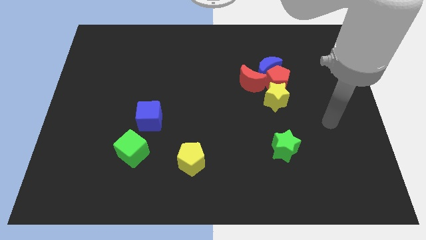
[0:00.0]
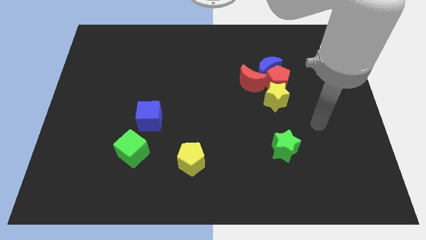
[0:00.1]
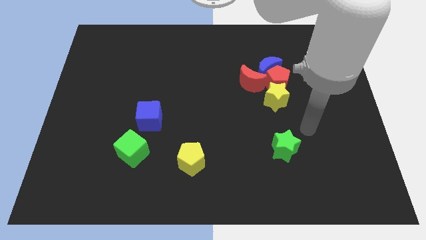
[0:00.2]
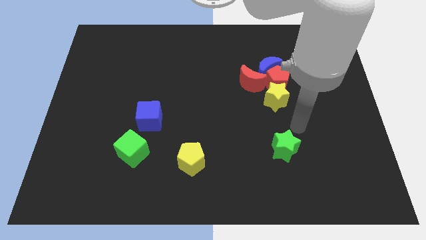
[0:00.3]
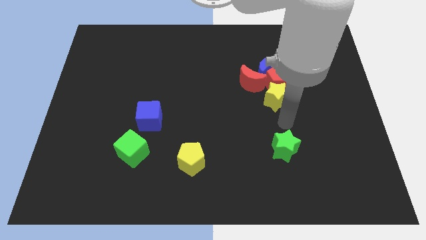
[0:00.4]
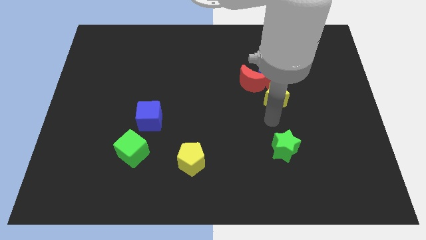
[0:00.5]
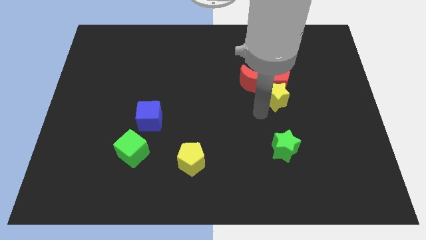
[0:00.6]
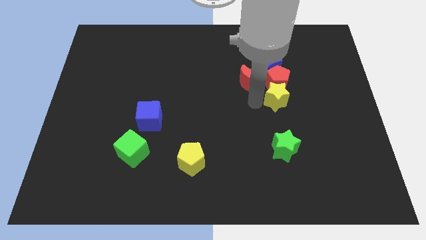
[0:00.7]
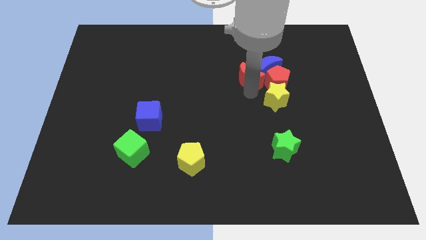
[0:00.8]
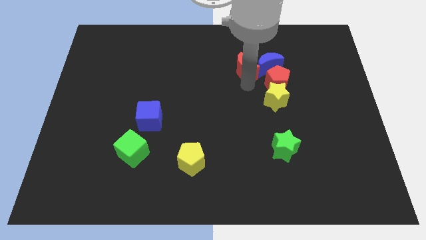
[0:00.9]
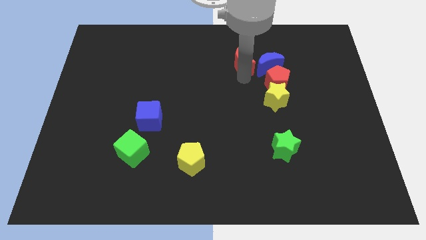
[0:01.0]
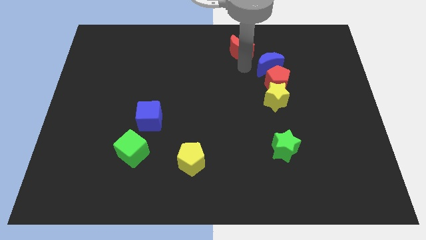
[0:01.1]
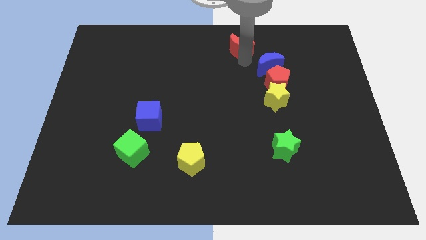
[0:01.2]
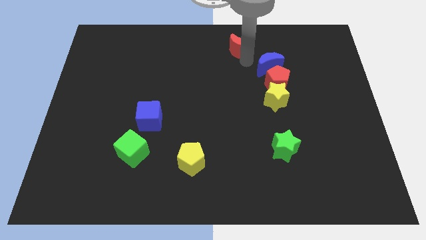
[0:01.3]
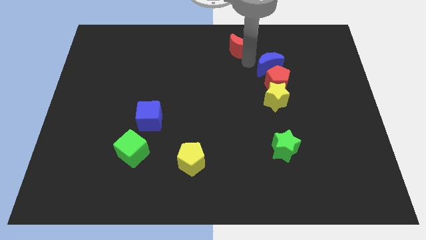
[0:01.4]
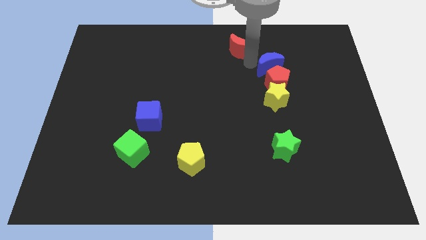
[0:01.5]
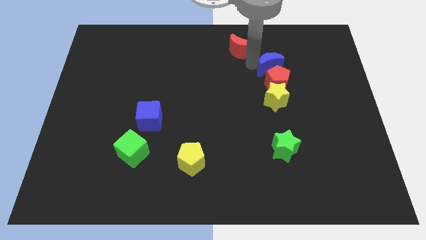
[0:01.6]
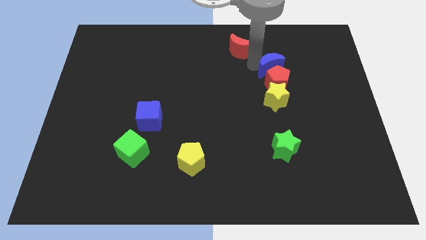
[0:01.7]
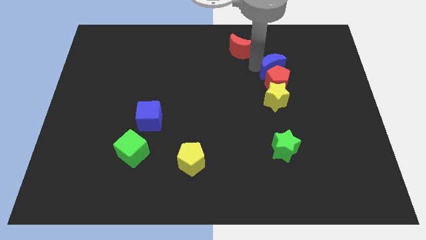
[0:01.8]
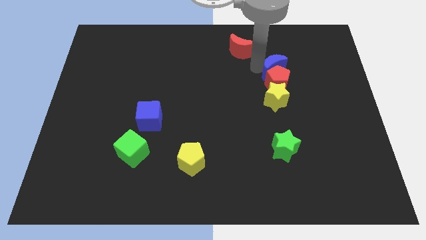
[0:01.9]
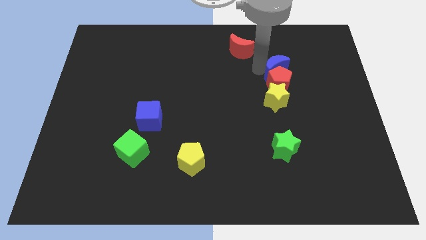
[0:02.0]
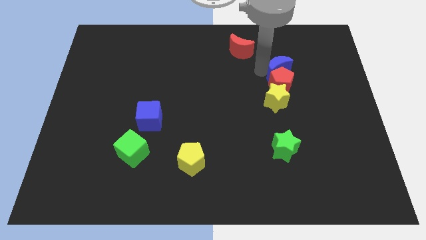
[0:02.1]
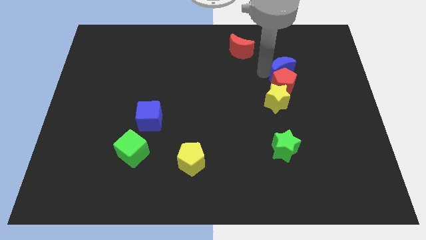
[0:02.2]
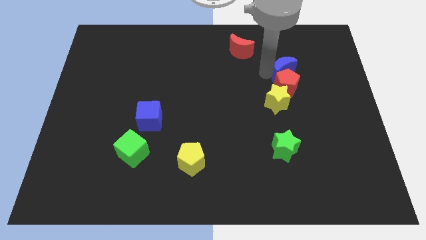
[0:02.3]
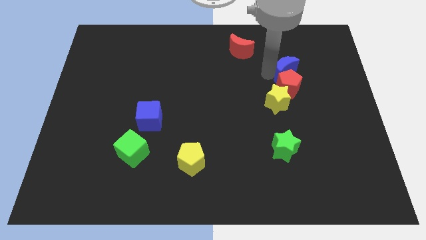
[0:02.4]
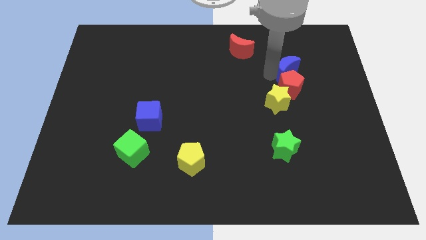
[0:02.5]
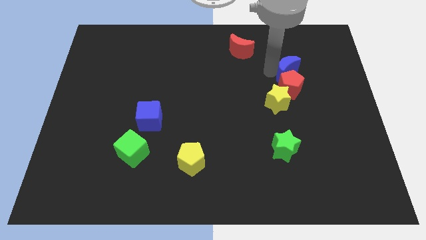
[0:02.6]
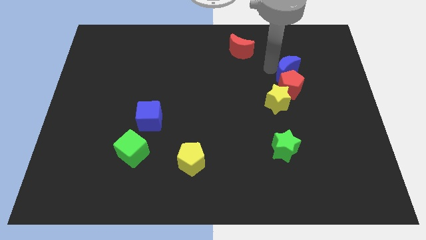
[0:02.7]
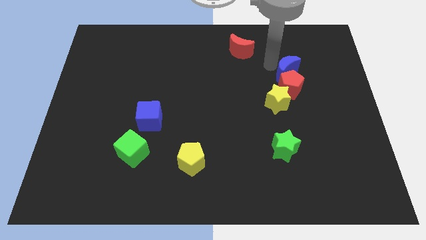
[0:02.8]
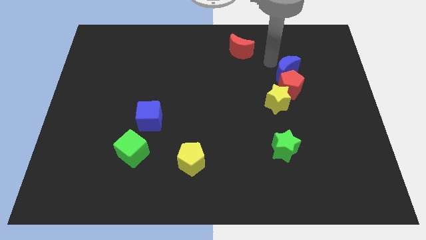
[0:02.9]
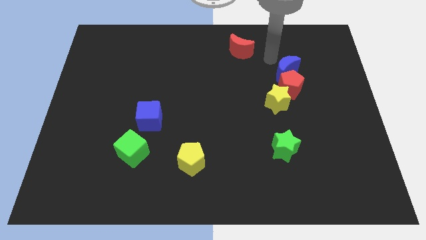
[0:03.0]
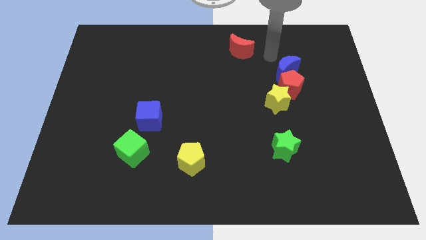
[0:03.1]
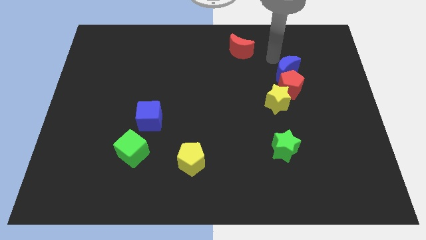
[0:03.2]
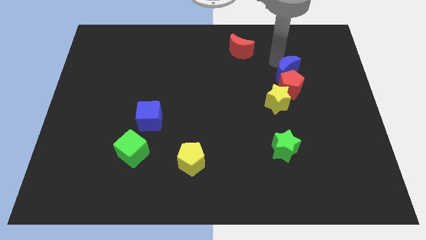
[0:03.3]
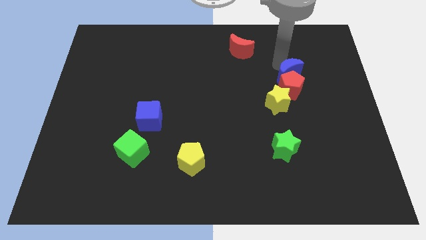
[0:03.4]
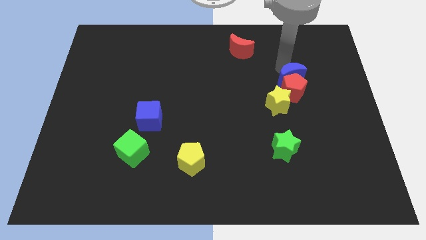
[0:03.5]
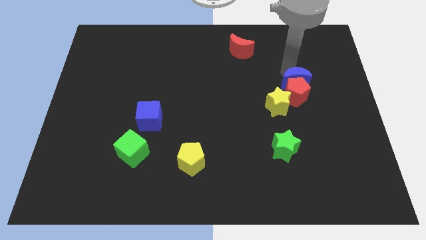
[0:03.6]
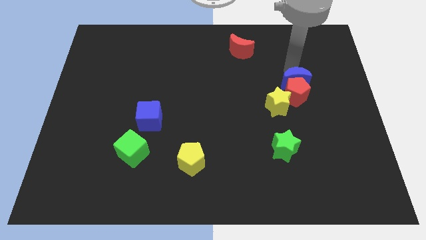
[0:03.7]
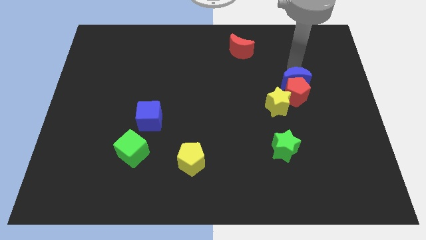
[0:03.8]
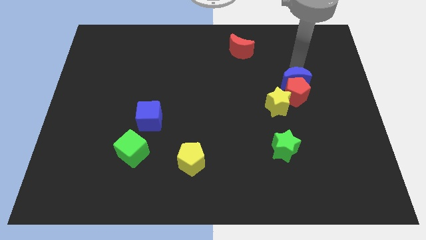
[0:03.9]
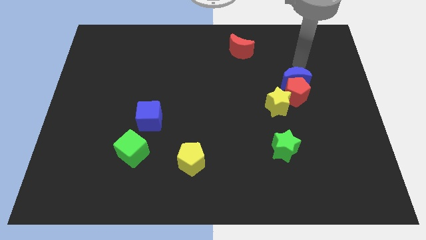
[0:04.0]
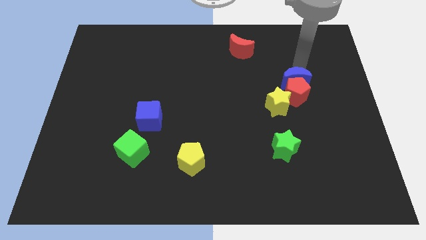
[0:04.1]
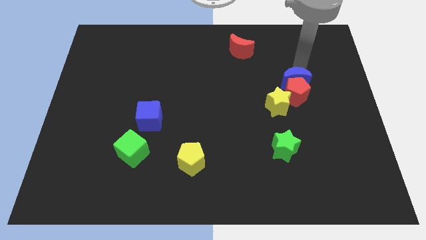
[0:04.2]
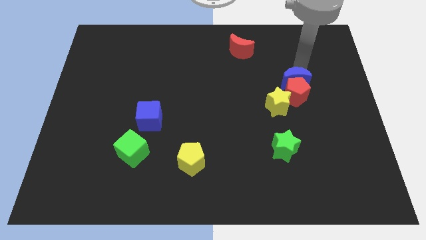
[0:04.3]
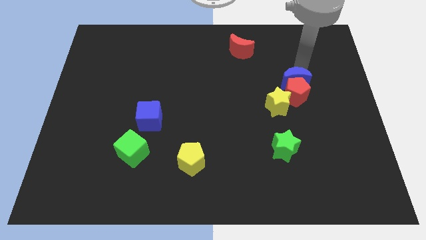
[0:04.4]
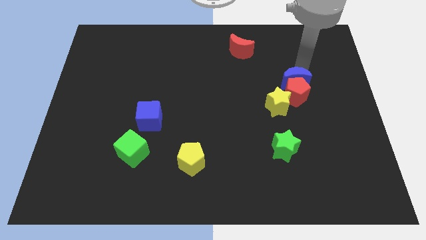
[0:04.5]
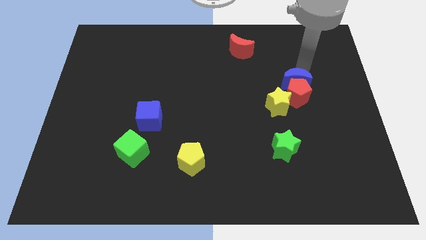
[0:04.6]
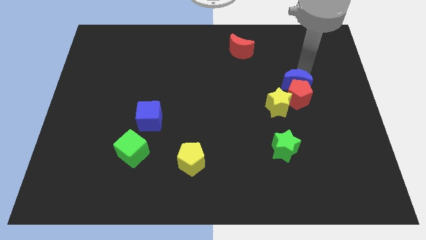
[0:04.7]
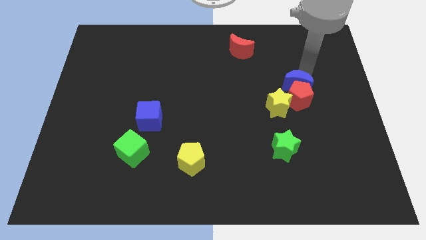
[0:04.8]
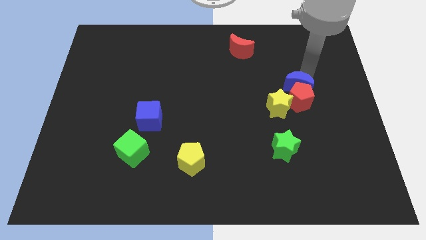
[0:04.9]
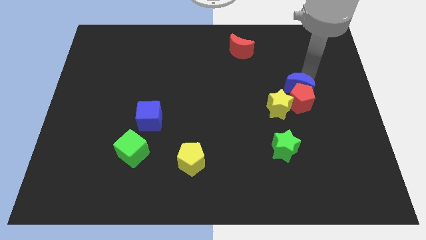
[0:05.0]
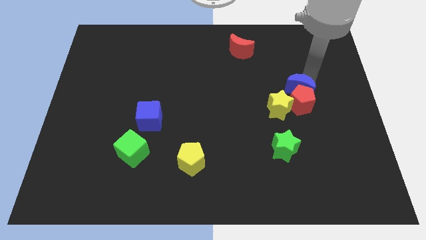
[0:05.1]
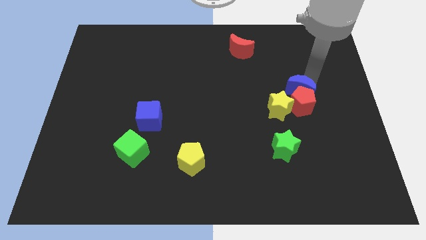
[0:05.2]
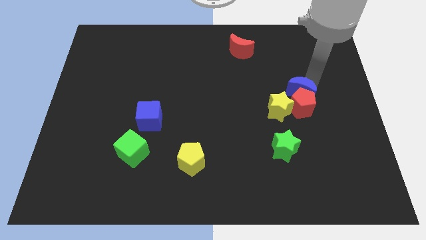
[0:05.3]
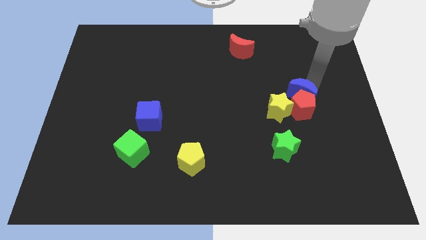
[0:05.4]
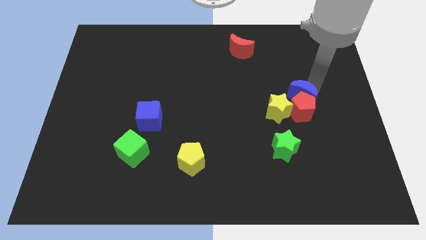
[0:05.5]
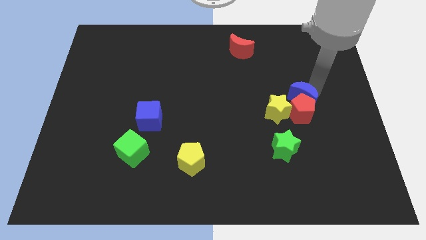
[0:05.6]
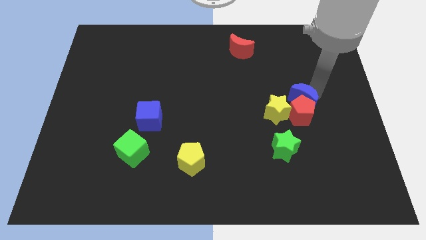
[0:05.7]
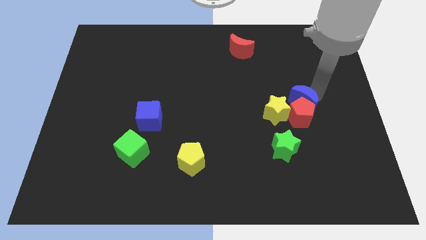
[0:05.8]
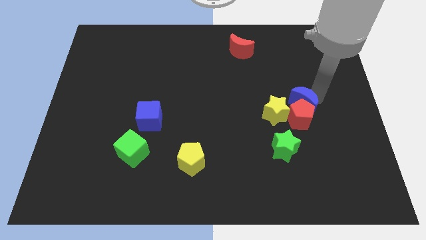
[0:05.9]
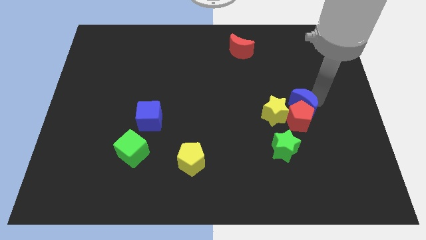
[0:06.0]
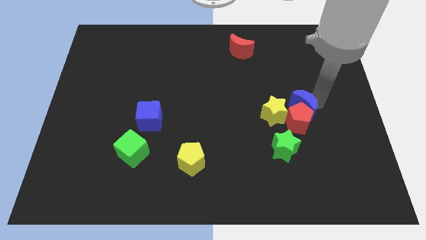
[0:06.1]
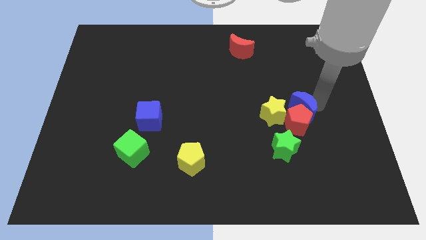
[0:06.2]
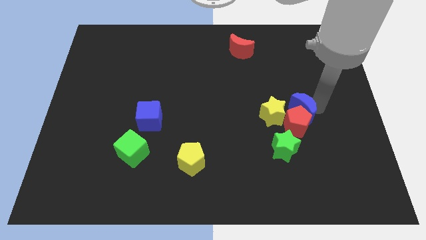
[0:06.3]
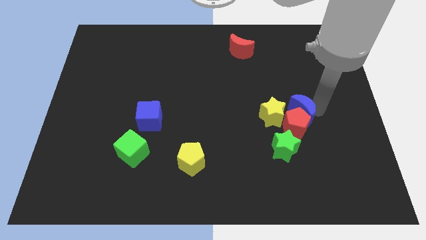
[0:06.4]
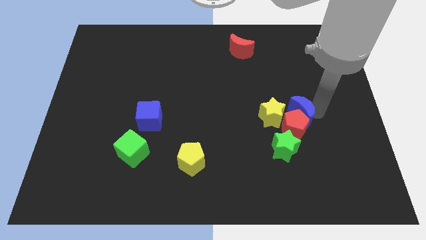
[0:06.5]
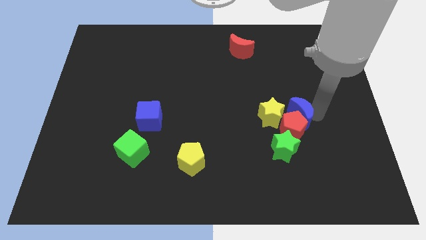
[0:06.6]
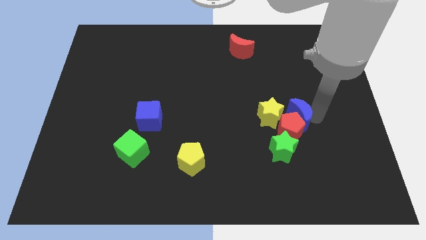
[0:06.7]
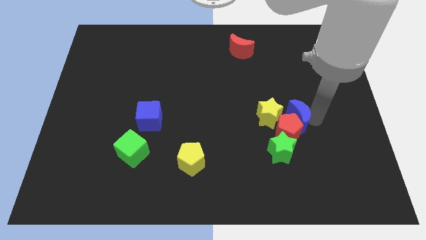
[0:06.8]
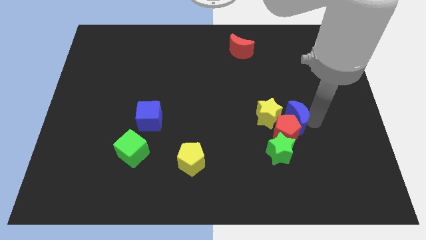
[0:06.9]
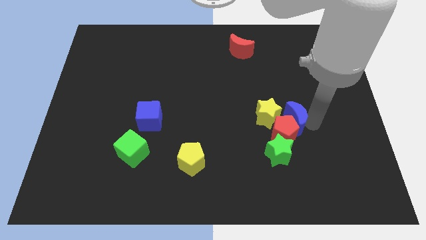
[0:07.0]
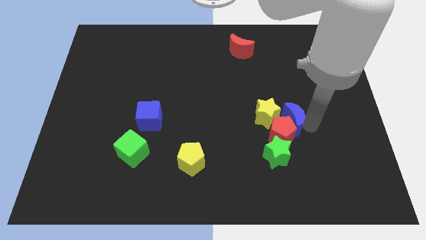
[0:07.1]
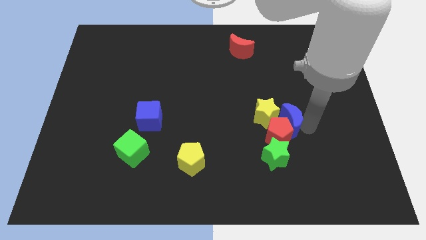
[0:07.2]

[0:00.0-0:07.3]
slide the blue moon towards the yellow star

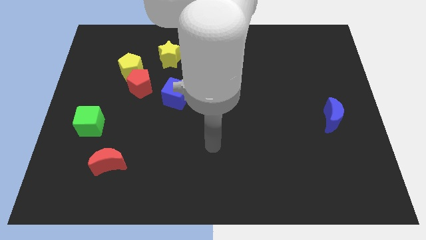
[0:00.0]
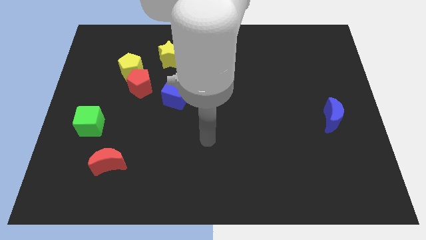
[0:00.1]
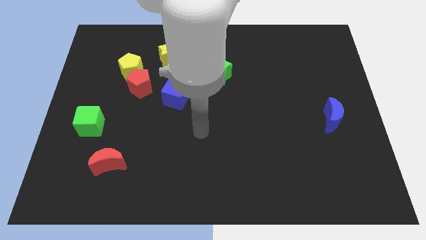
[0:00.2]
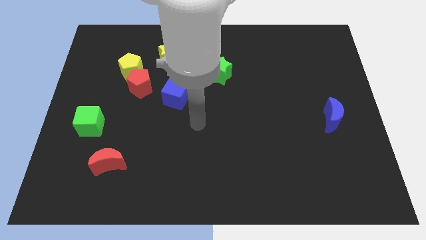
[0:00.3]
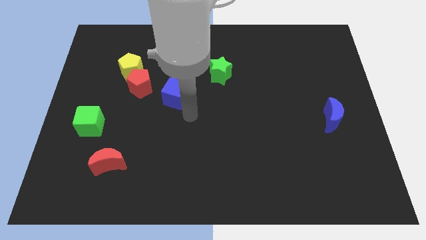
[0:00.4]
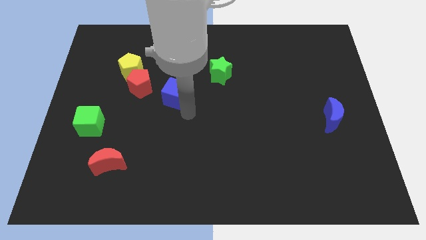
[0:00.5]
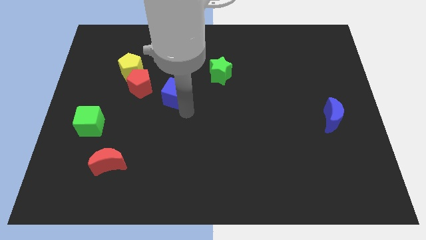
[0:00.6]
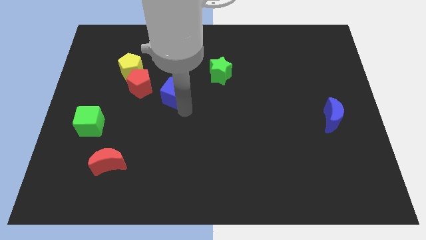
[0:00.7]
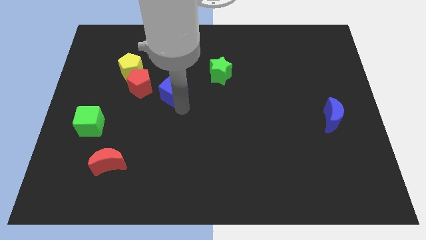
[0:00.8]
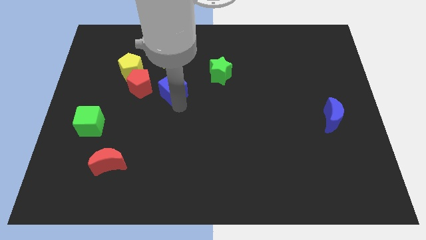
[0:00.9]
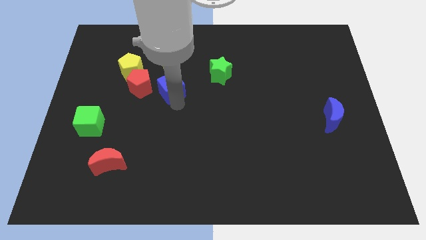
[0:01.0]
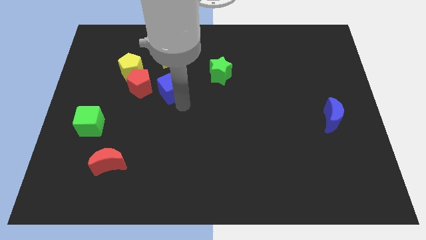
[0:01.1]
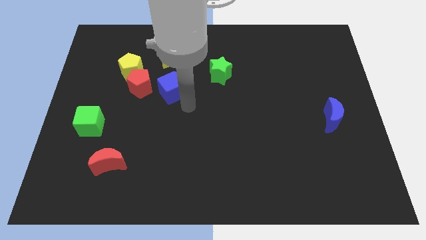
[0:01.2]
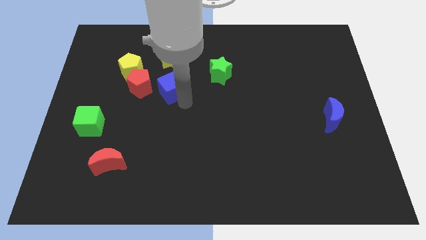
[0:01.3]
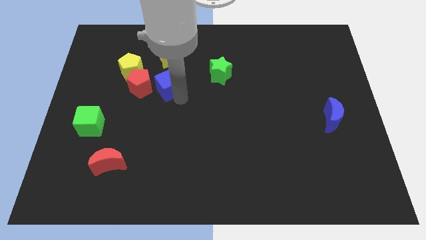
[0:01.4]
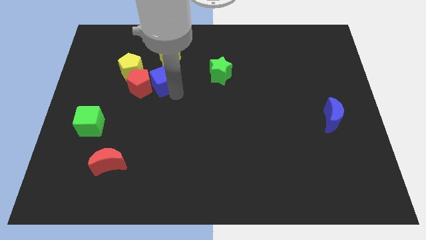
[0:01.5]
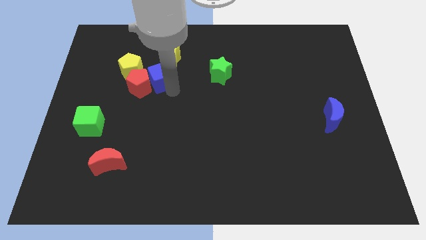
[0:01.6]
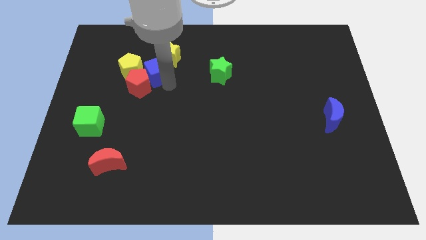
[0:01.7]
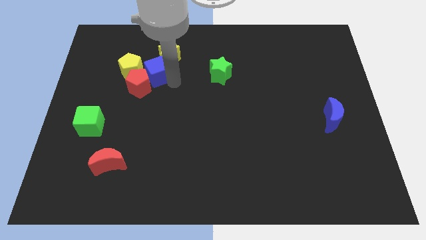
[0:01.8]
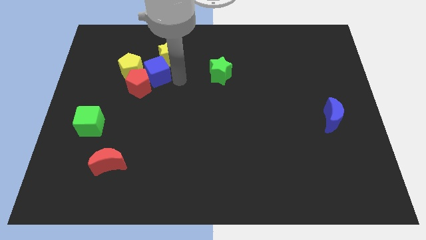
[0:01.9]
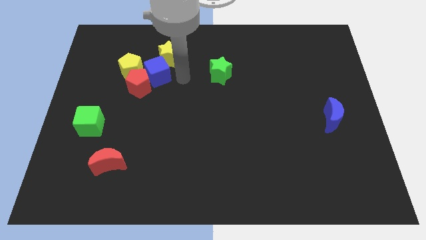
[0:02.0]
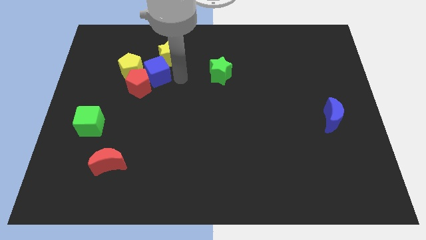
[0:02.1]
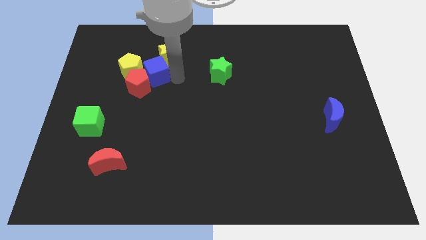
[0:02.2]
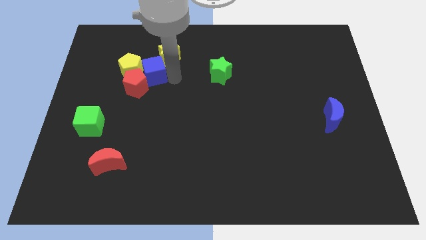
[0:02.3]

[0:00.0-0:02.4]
put the blue cube to the yellow pentagon
